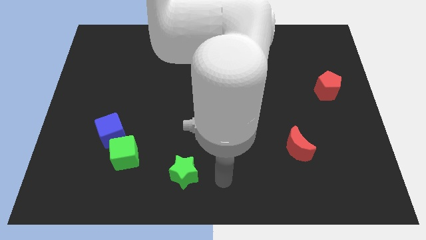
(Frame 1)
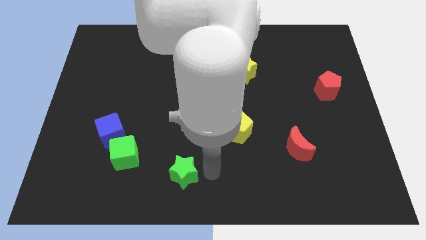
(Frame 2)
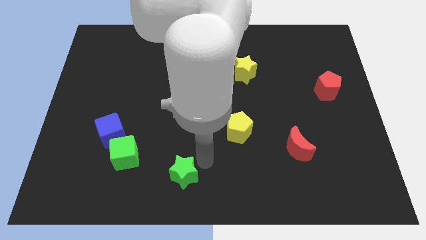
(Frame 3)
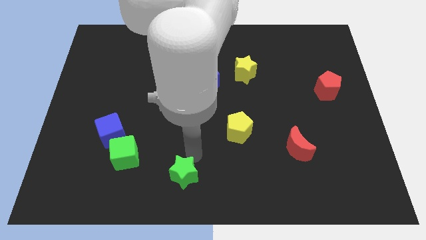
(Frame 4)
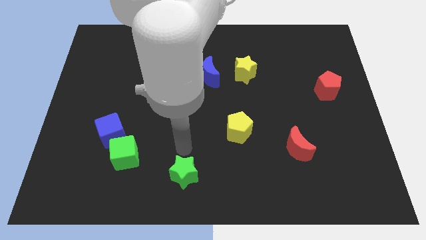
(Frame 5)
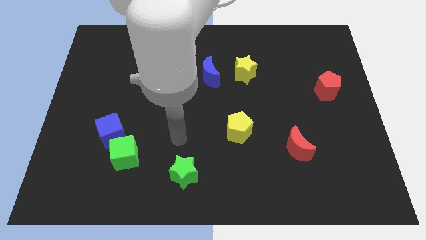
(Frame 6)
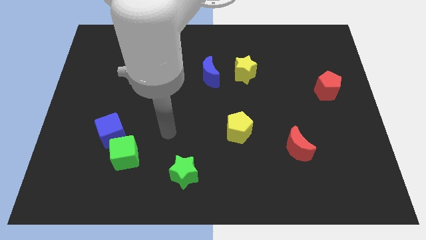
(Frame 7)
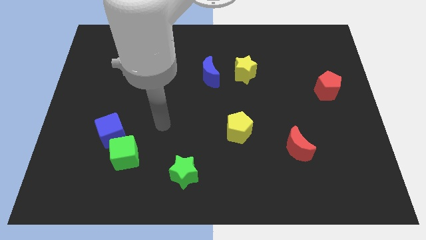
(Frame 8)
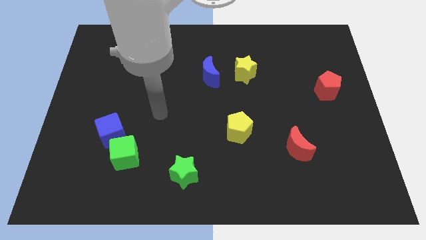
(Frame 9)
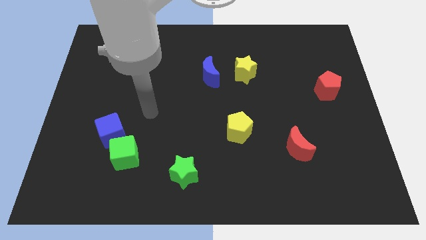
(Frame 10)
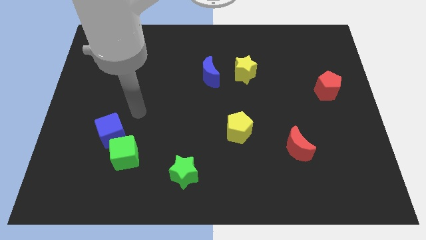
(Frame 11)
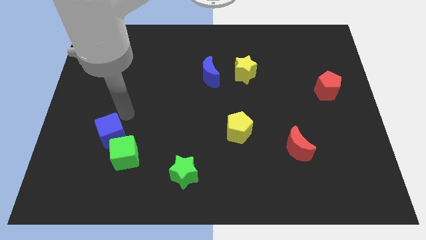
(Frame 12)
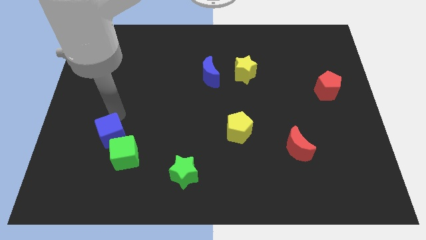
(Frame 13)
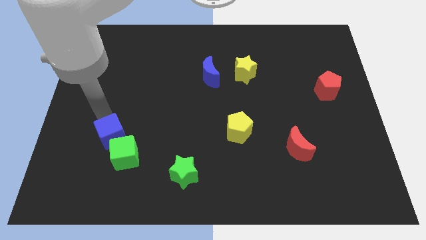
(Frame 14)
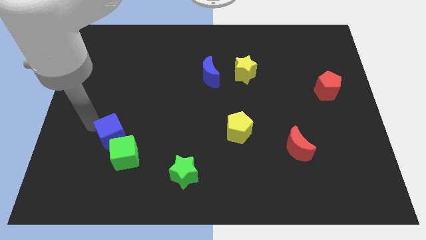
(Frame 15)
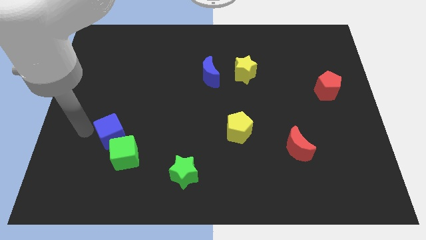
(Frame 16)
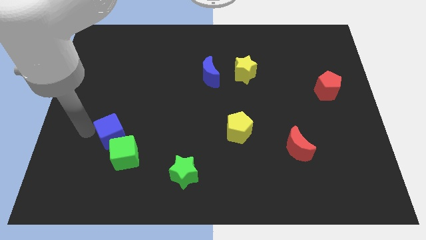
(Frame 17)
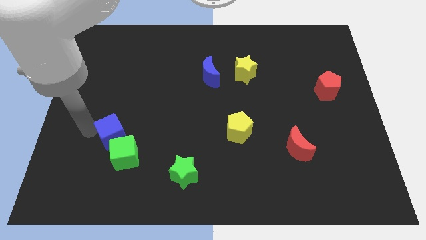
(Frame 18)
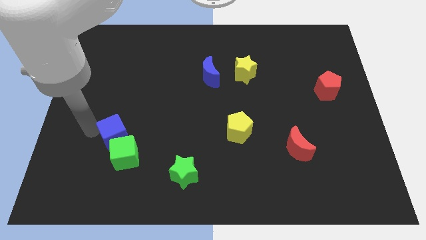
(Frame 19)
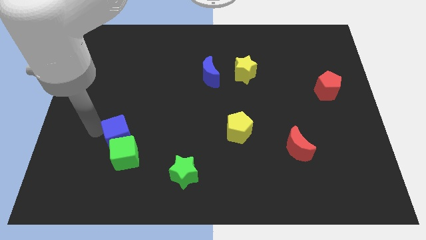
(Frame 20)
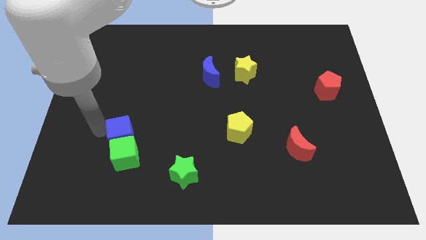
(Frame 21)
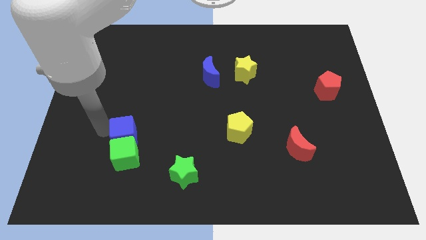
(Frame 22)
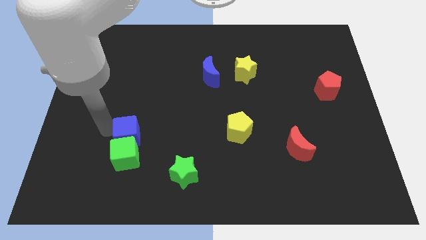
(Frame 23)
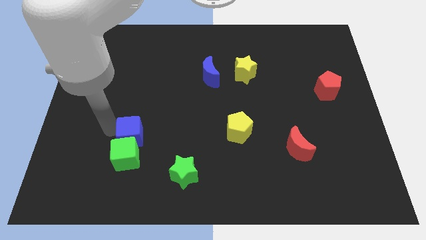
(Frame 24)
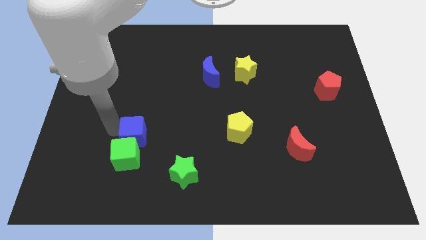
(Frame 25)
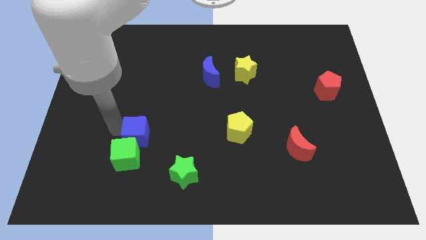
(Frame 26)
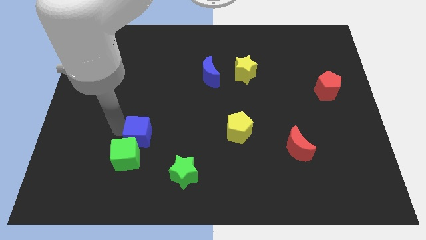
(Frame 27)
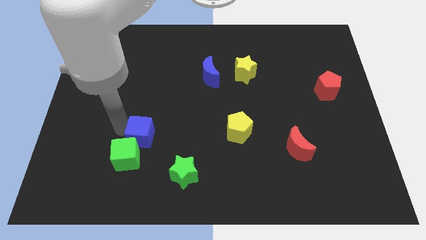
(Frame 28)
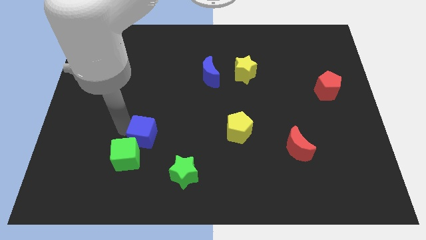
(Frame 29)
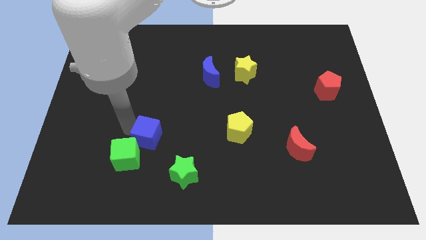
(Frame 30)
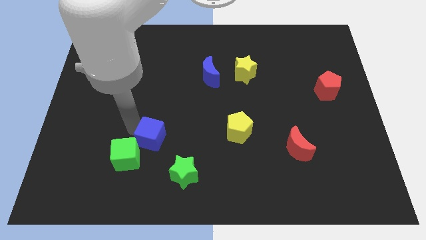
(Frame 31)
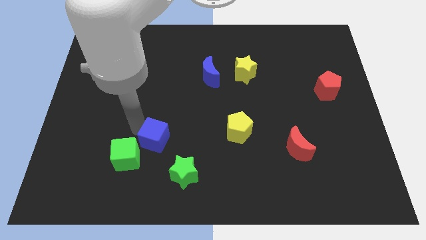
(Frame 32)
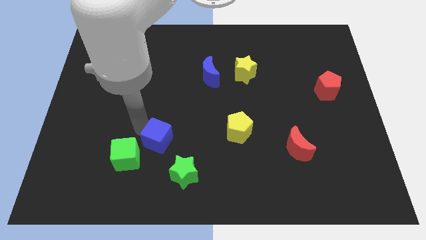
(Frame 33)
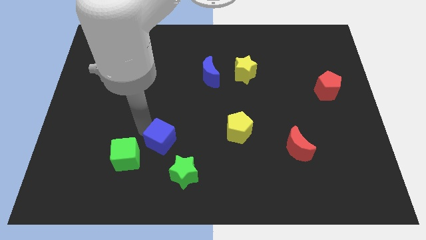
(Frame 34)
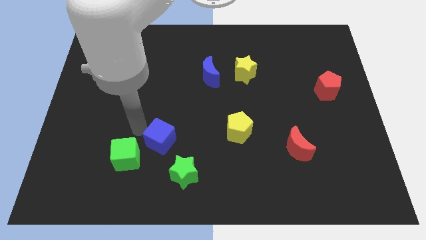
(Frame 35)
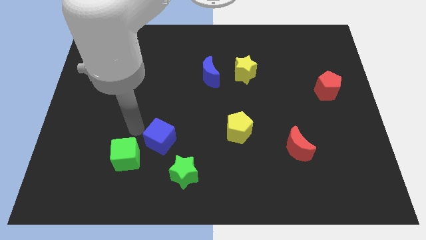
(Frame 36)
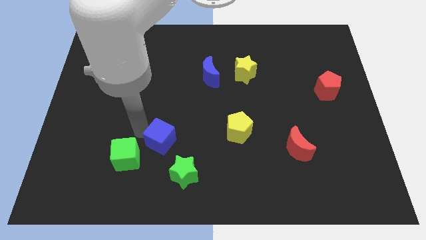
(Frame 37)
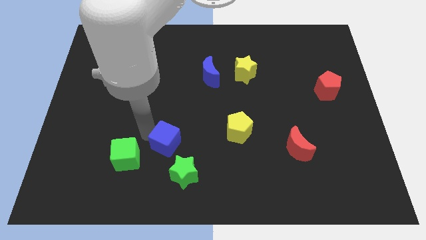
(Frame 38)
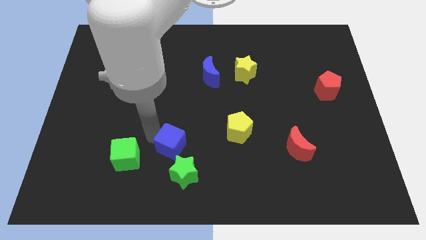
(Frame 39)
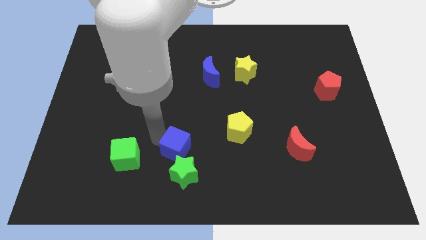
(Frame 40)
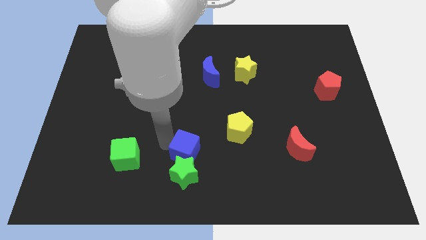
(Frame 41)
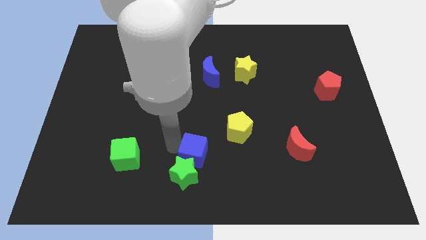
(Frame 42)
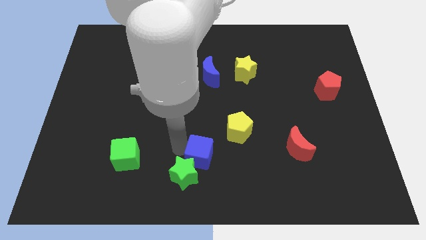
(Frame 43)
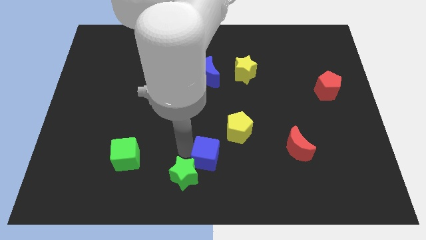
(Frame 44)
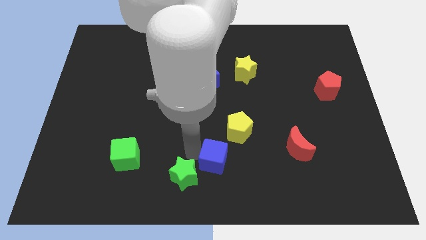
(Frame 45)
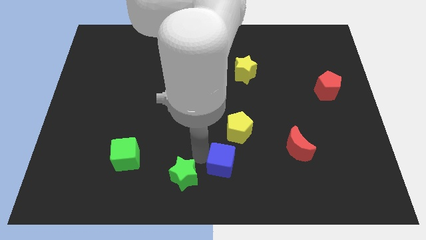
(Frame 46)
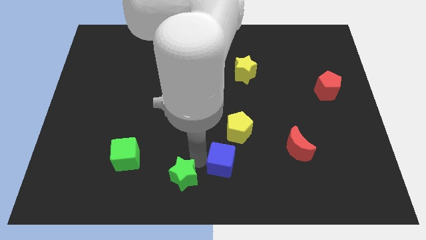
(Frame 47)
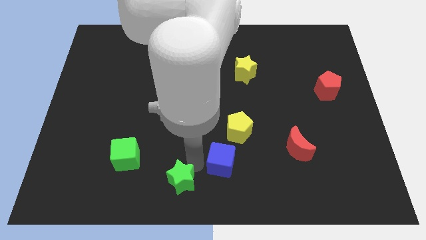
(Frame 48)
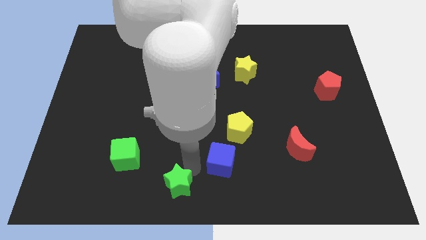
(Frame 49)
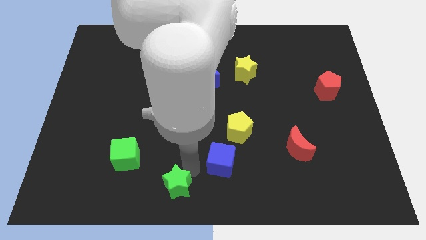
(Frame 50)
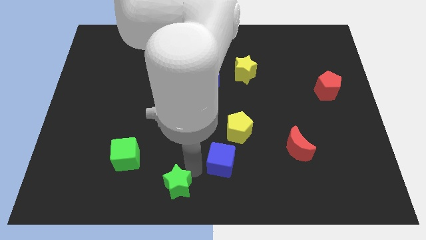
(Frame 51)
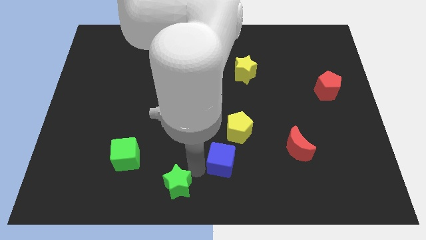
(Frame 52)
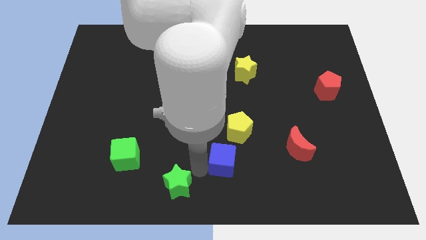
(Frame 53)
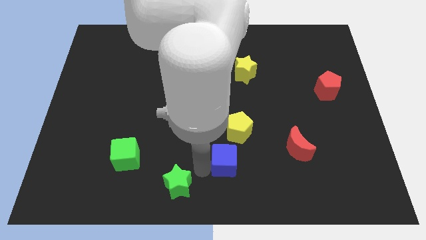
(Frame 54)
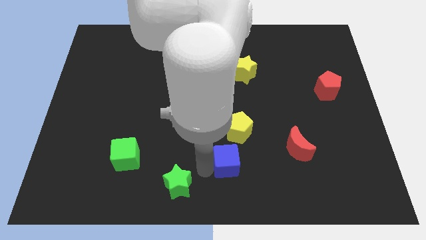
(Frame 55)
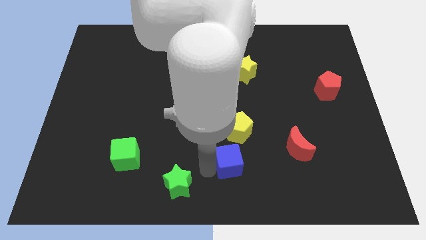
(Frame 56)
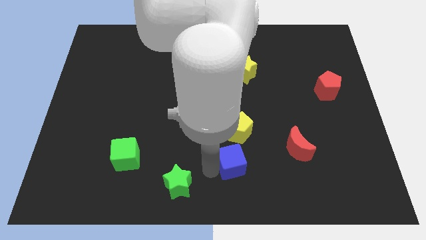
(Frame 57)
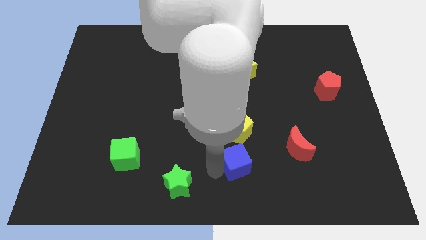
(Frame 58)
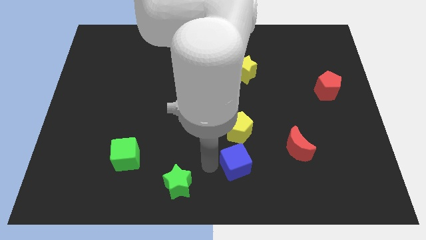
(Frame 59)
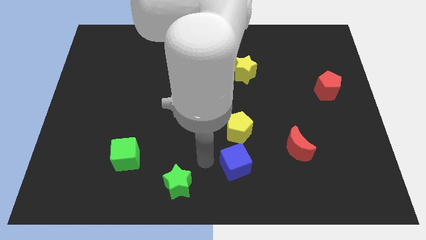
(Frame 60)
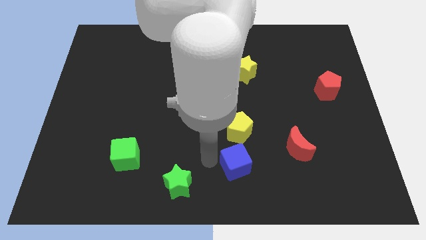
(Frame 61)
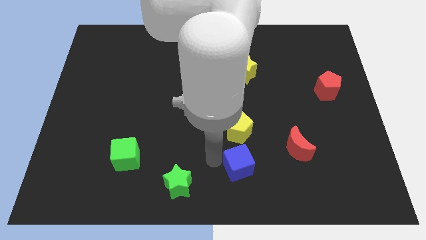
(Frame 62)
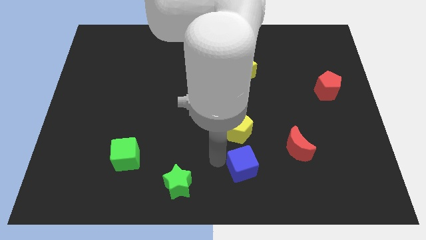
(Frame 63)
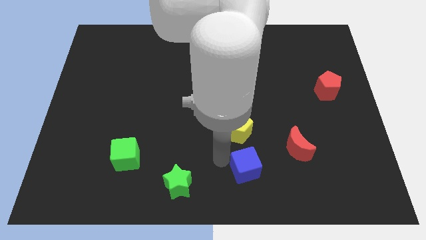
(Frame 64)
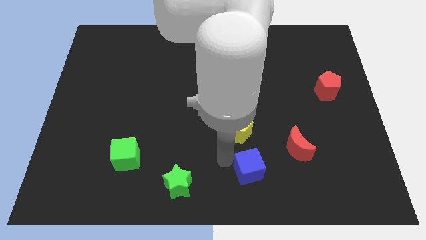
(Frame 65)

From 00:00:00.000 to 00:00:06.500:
put the blue cube to the bottom left of the red moon

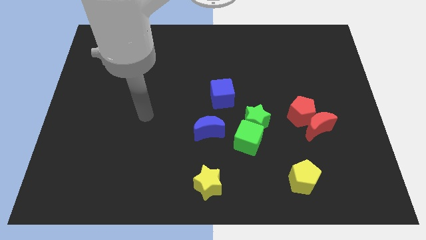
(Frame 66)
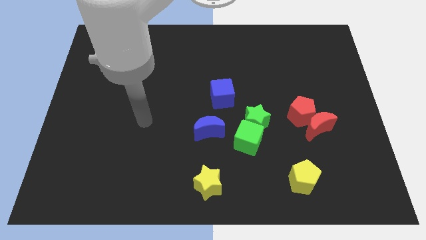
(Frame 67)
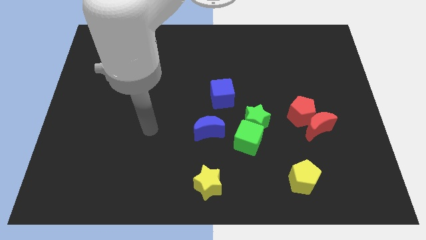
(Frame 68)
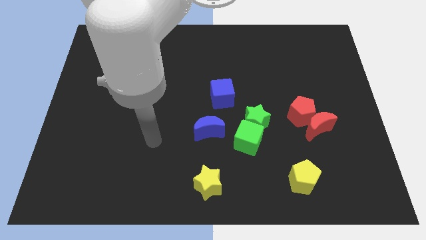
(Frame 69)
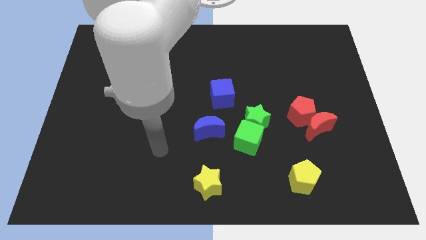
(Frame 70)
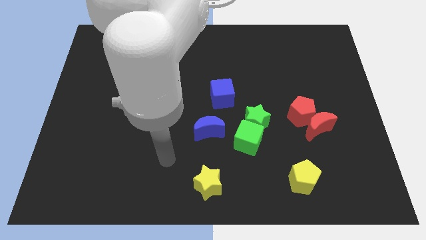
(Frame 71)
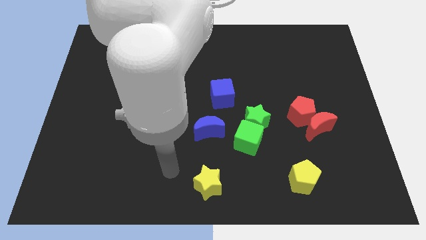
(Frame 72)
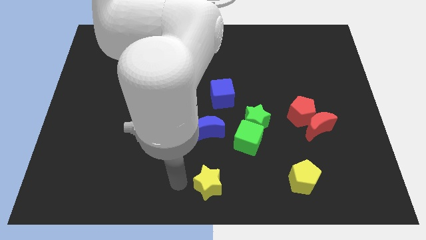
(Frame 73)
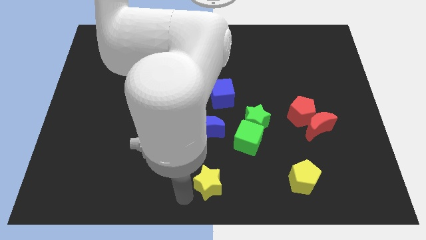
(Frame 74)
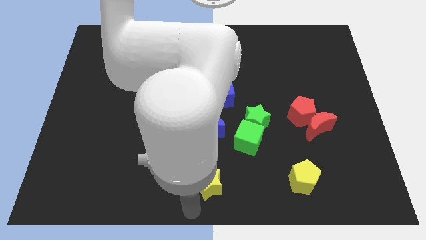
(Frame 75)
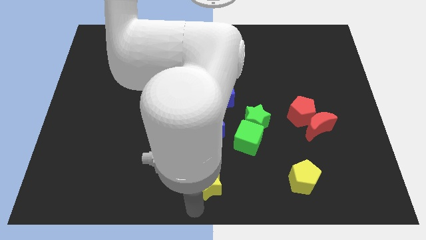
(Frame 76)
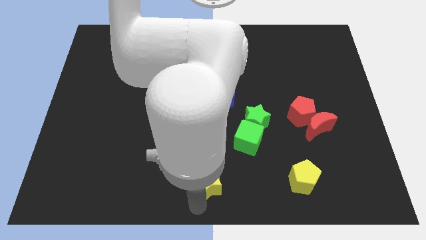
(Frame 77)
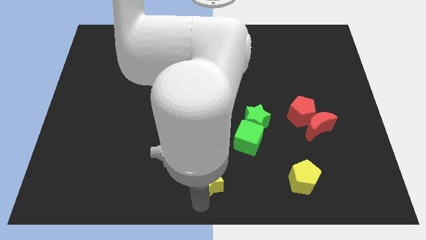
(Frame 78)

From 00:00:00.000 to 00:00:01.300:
put the yellow star to the bottom left side of the green cube
